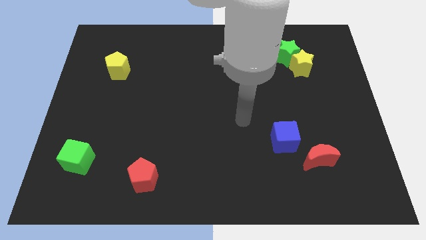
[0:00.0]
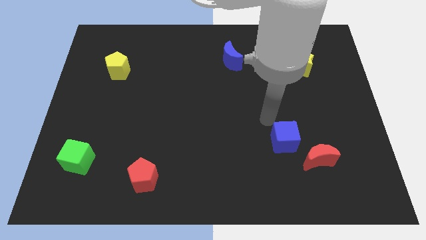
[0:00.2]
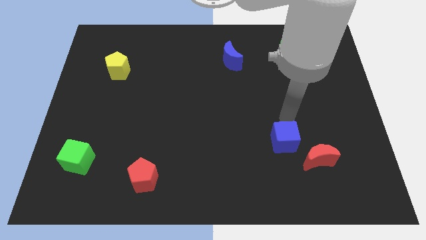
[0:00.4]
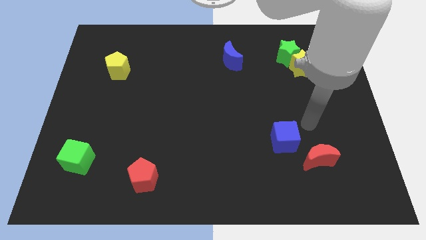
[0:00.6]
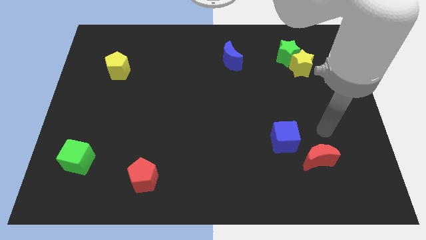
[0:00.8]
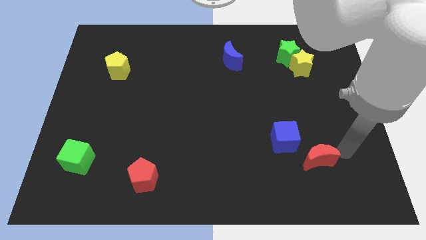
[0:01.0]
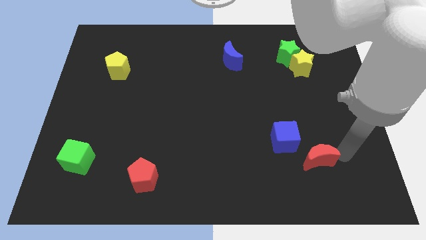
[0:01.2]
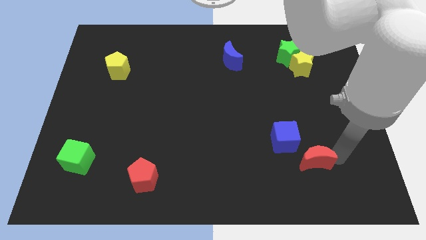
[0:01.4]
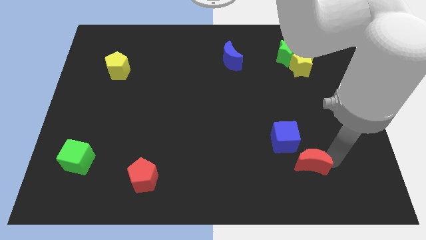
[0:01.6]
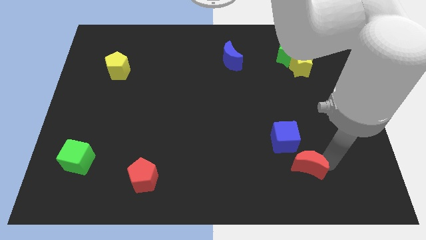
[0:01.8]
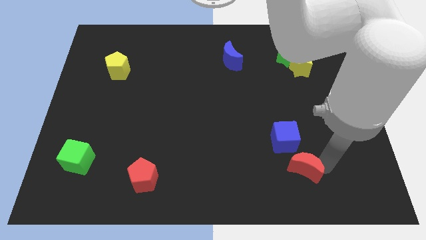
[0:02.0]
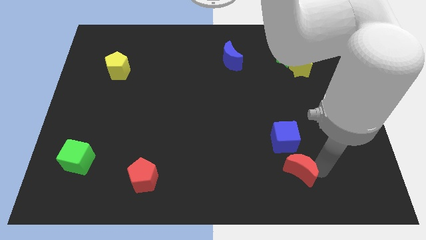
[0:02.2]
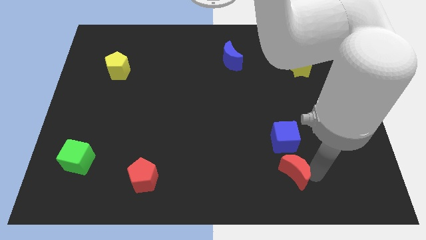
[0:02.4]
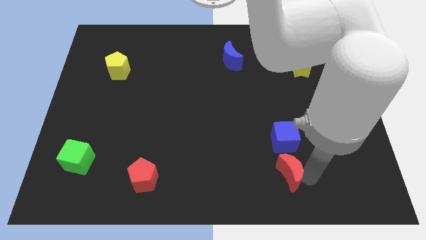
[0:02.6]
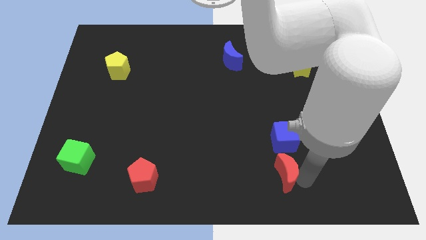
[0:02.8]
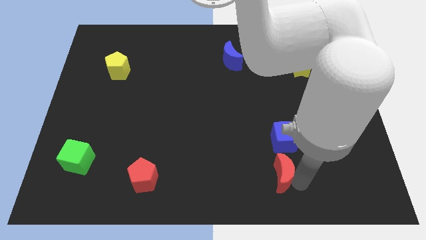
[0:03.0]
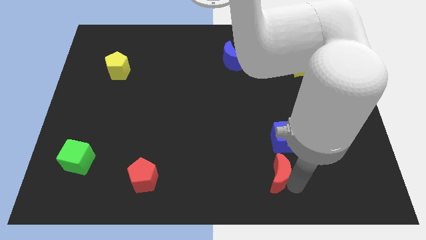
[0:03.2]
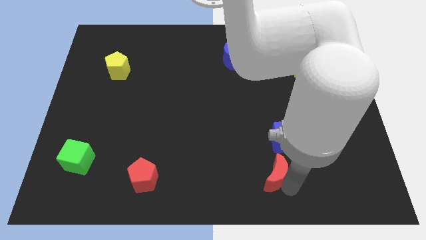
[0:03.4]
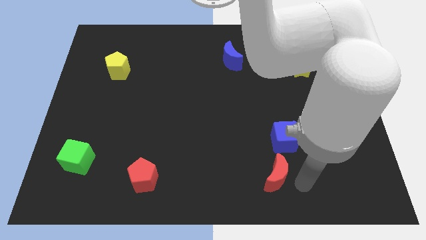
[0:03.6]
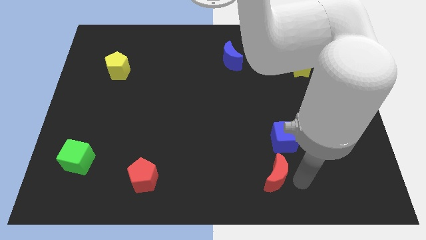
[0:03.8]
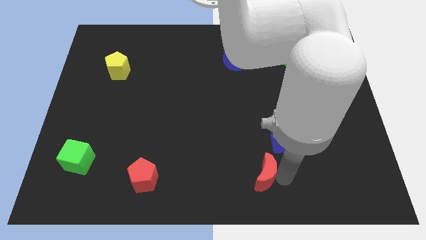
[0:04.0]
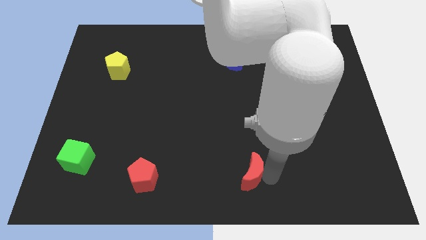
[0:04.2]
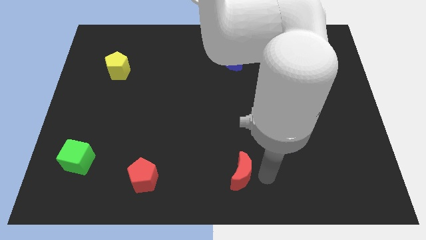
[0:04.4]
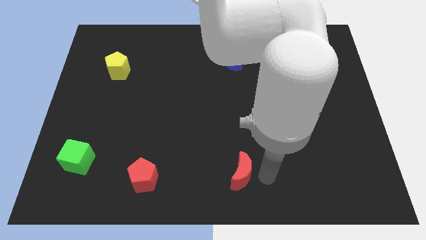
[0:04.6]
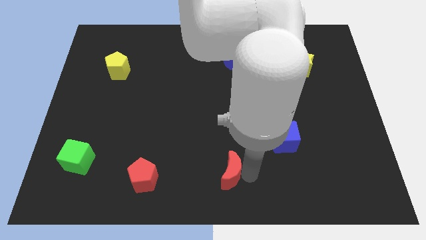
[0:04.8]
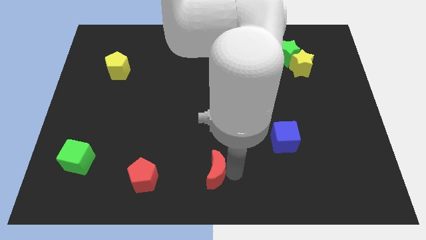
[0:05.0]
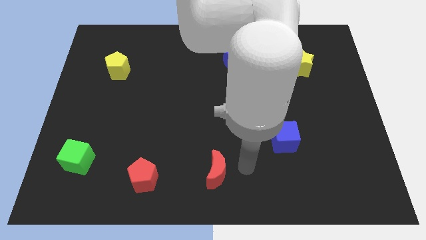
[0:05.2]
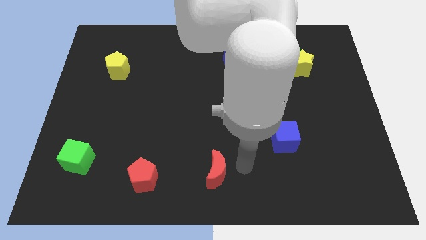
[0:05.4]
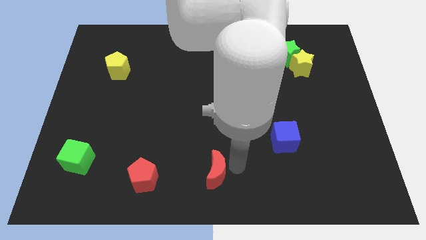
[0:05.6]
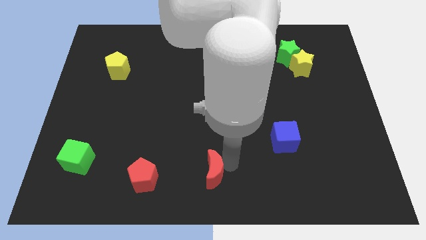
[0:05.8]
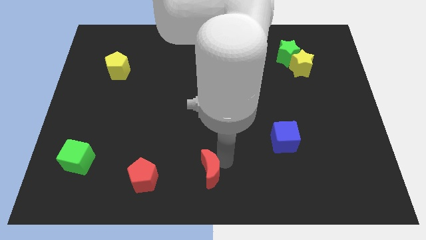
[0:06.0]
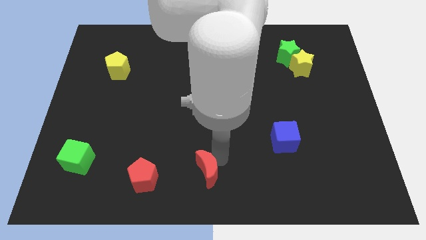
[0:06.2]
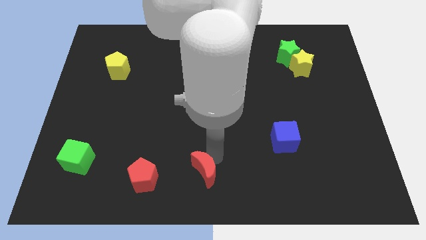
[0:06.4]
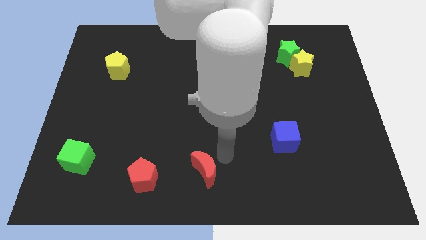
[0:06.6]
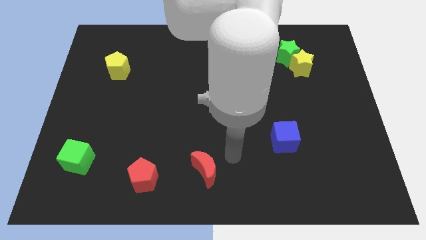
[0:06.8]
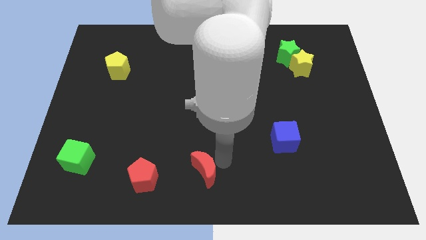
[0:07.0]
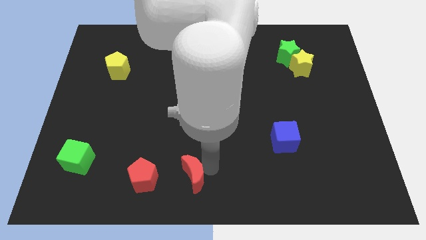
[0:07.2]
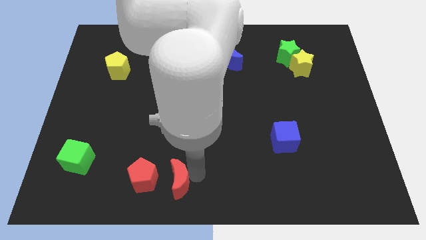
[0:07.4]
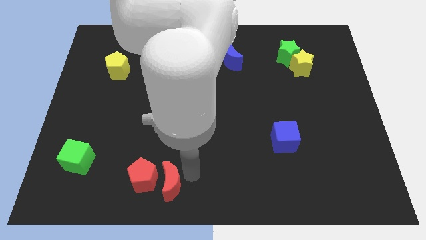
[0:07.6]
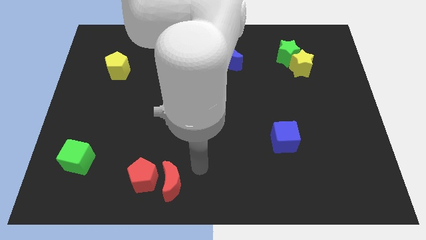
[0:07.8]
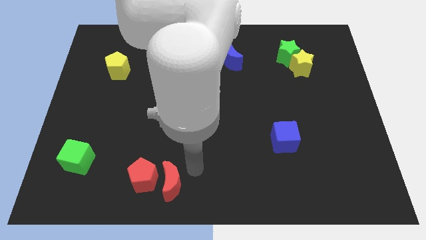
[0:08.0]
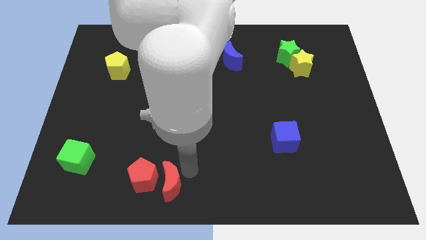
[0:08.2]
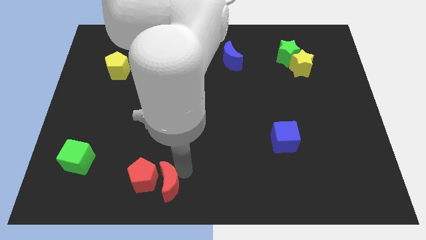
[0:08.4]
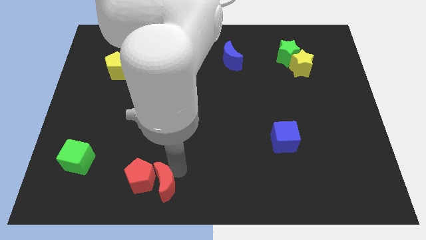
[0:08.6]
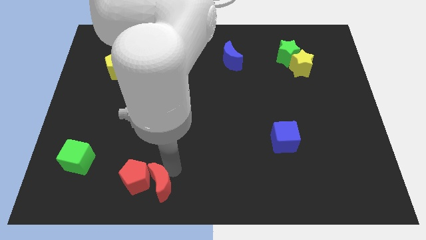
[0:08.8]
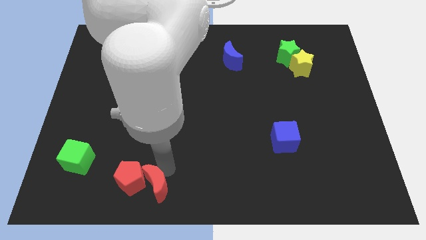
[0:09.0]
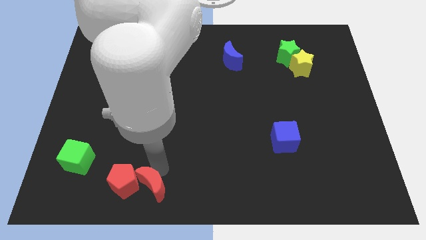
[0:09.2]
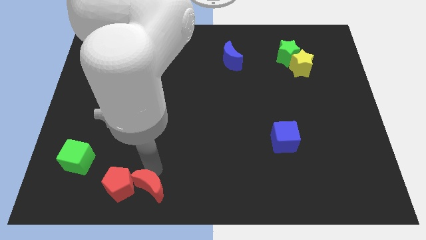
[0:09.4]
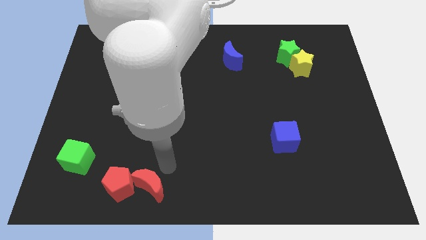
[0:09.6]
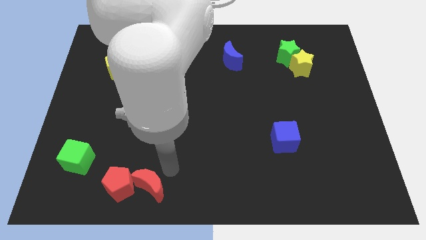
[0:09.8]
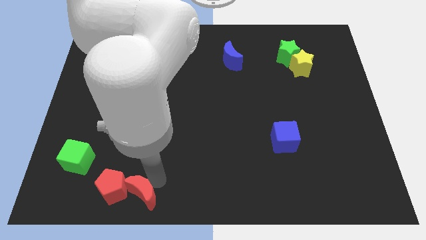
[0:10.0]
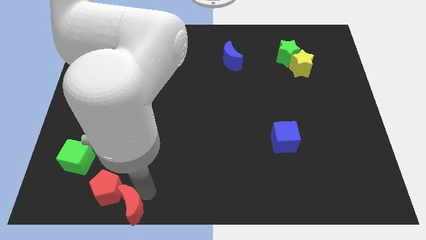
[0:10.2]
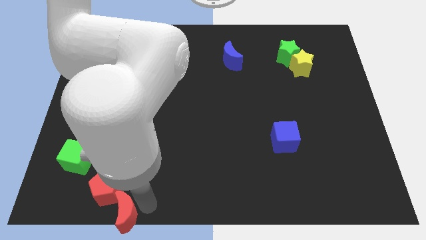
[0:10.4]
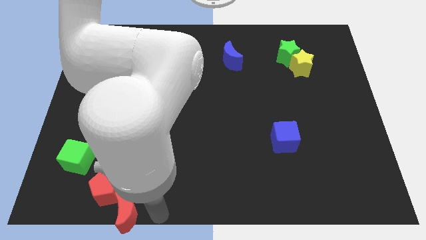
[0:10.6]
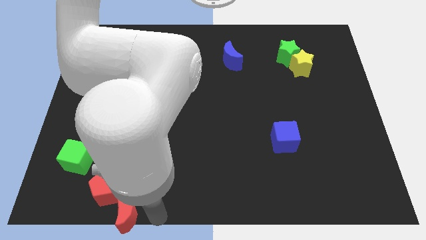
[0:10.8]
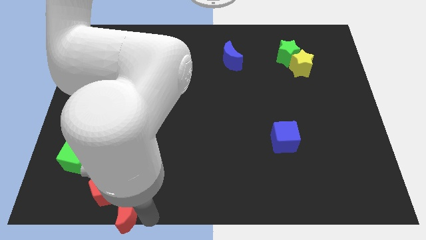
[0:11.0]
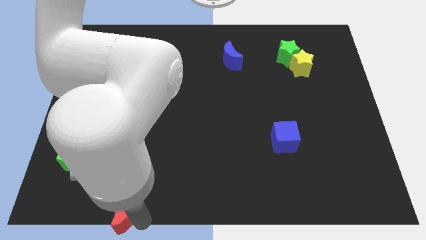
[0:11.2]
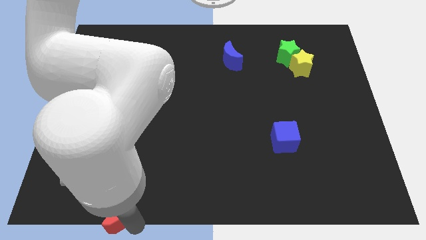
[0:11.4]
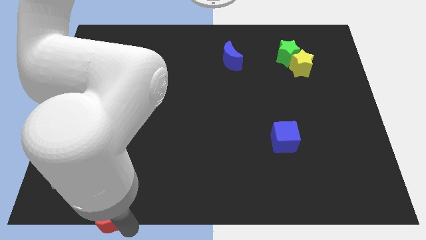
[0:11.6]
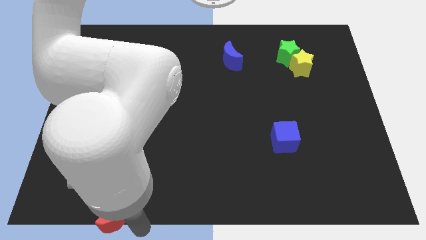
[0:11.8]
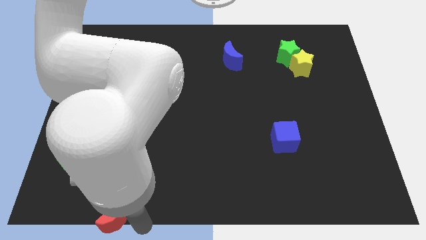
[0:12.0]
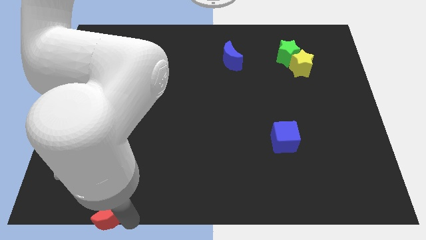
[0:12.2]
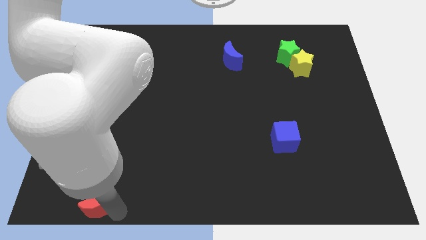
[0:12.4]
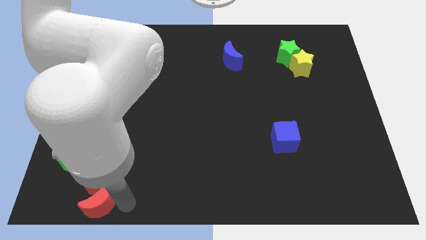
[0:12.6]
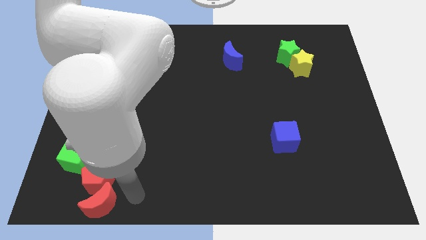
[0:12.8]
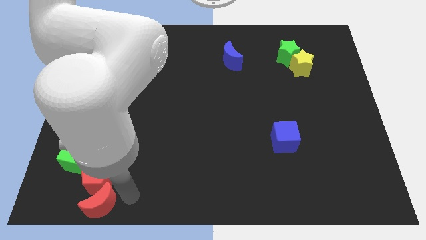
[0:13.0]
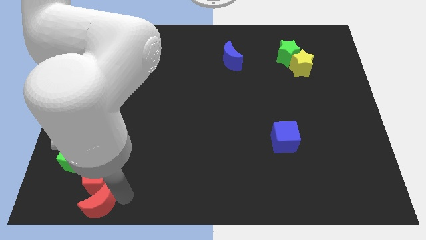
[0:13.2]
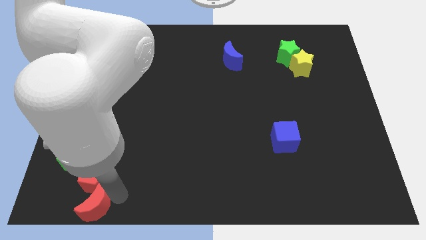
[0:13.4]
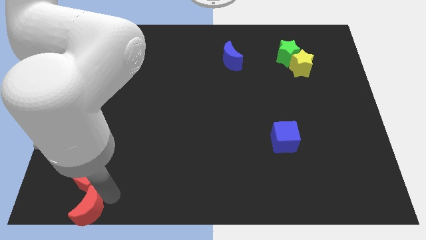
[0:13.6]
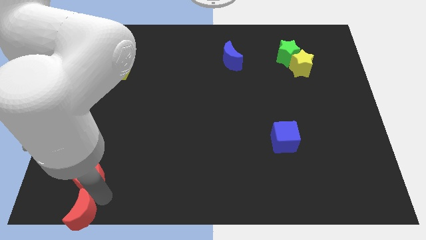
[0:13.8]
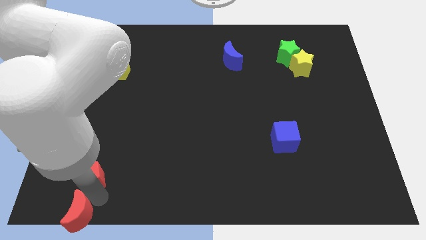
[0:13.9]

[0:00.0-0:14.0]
move the red moon to the bottom left of the board

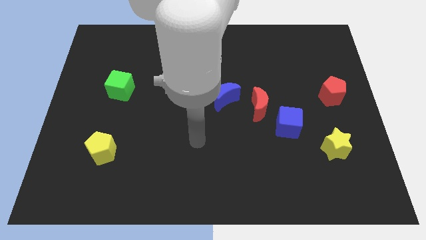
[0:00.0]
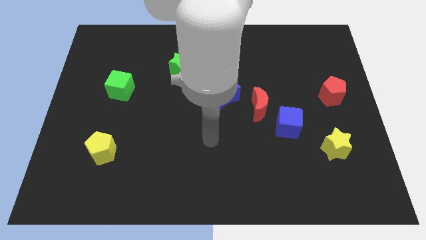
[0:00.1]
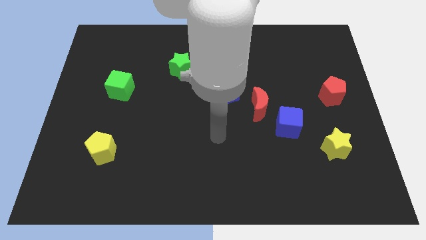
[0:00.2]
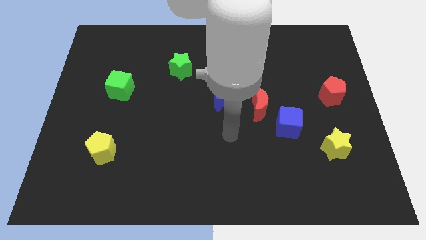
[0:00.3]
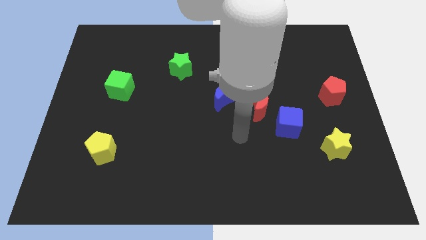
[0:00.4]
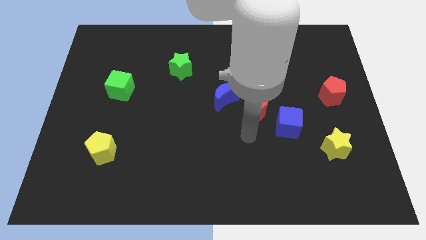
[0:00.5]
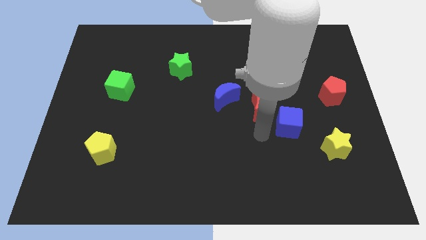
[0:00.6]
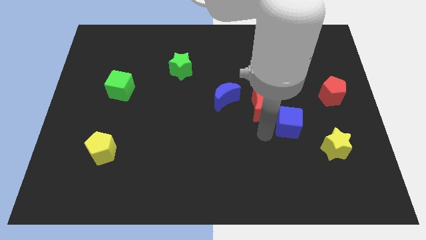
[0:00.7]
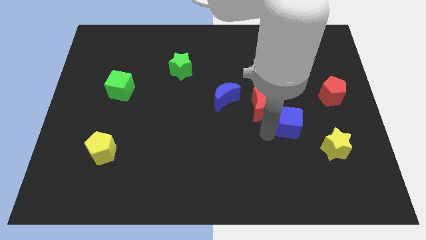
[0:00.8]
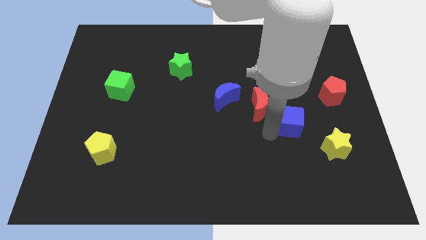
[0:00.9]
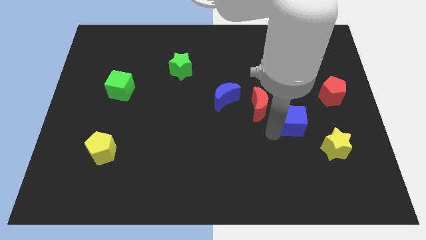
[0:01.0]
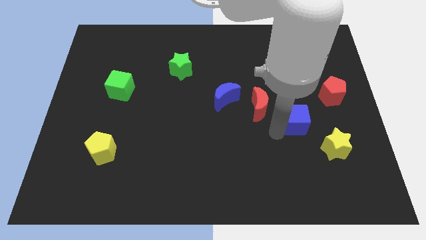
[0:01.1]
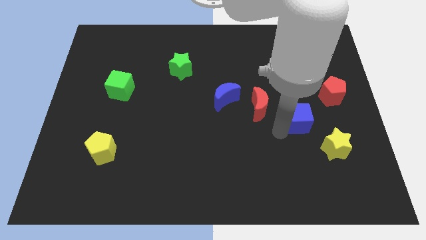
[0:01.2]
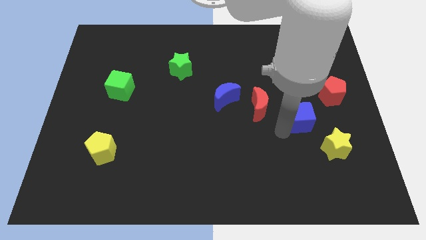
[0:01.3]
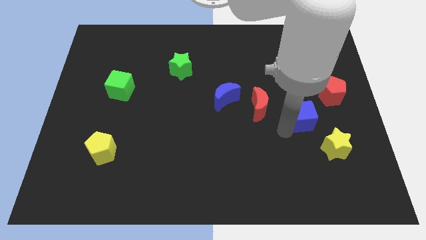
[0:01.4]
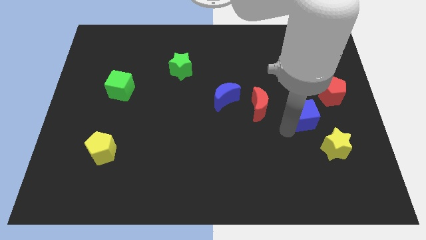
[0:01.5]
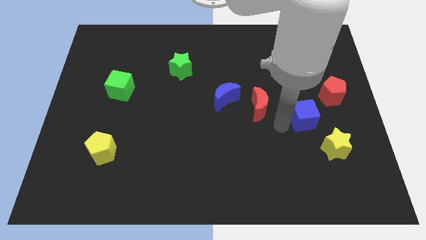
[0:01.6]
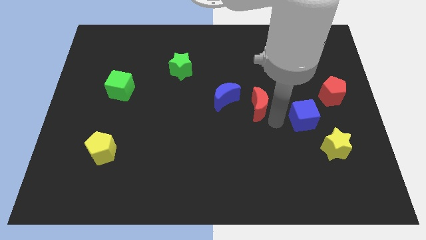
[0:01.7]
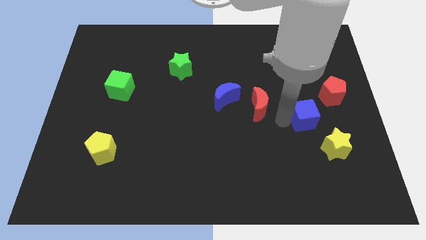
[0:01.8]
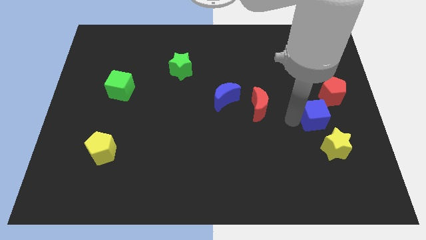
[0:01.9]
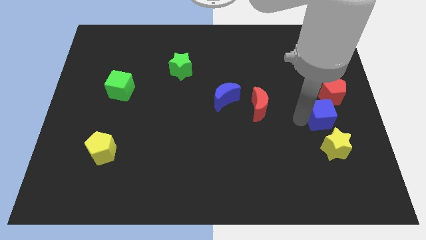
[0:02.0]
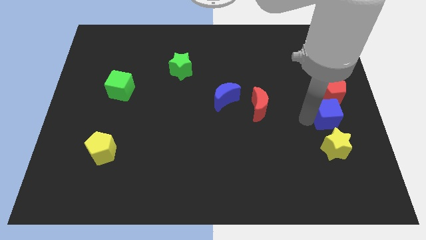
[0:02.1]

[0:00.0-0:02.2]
move the blue cube to the right side
